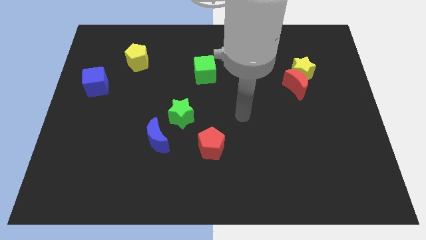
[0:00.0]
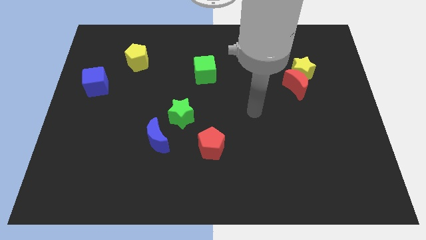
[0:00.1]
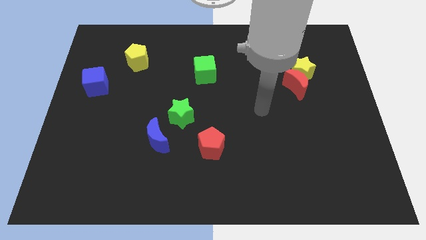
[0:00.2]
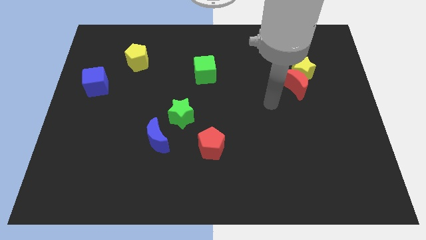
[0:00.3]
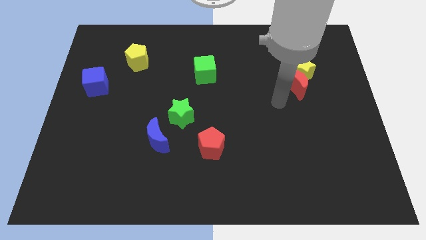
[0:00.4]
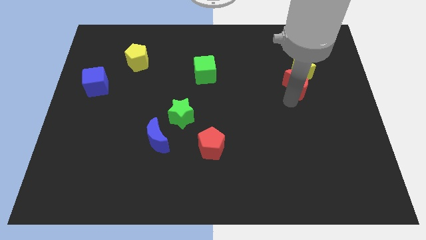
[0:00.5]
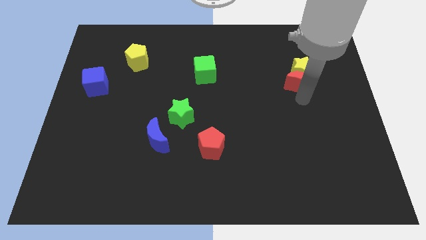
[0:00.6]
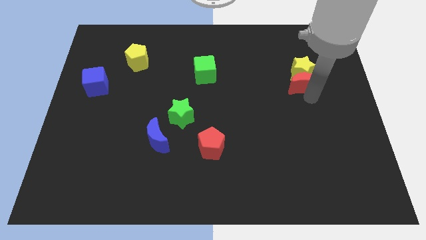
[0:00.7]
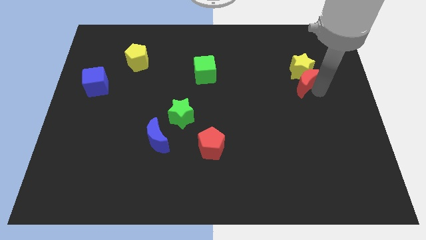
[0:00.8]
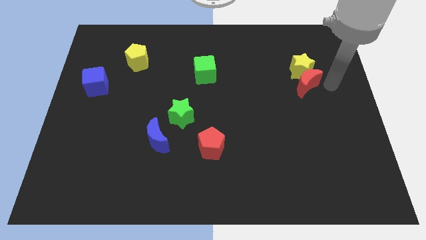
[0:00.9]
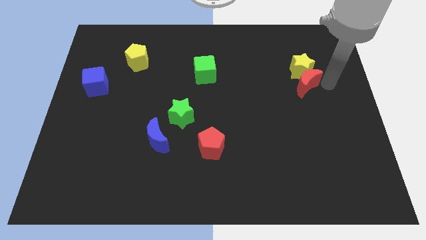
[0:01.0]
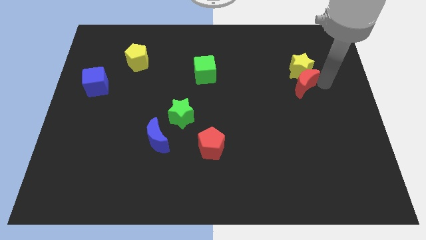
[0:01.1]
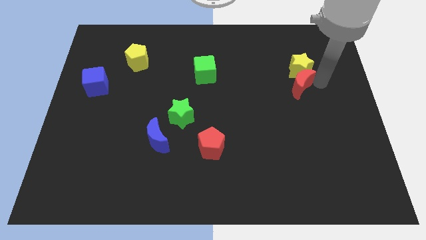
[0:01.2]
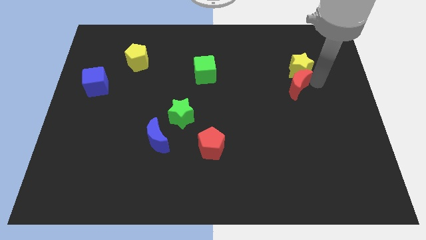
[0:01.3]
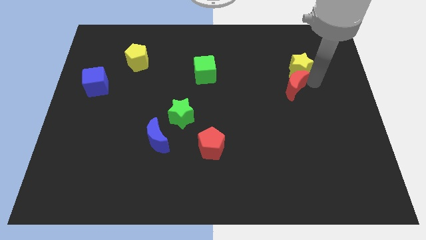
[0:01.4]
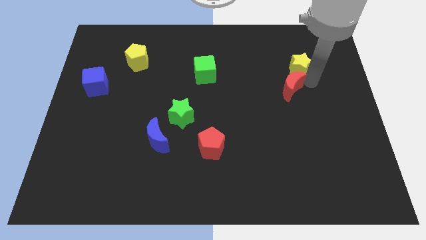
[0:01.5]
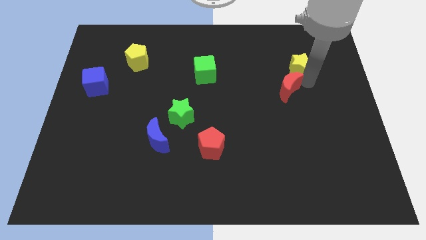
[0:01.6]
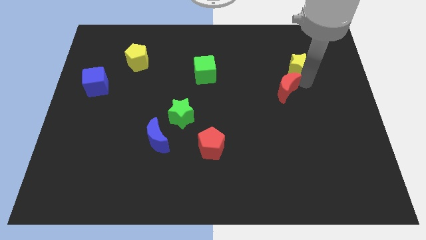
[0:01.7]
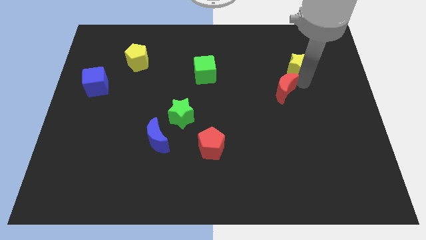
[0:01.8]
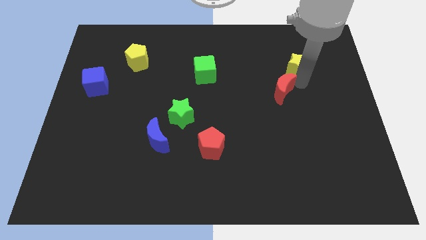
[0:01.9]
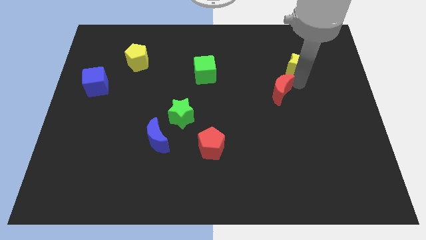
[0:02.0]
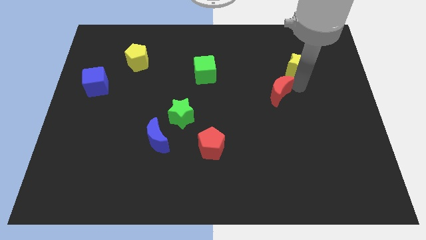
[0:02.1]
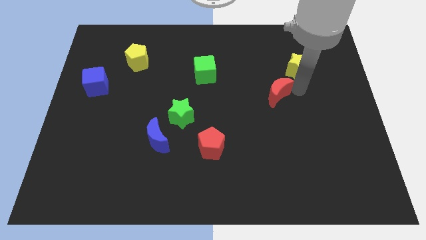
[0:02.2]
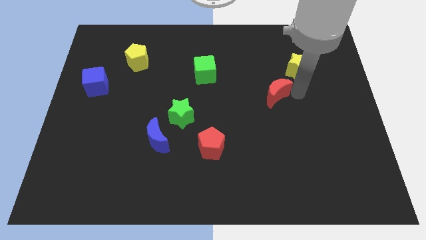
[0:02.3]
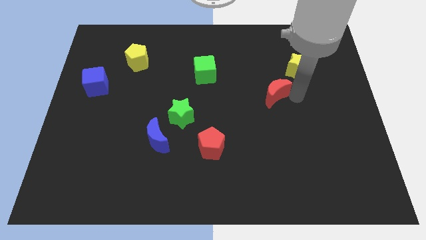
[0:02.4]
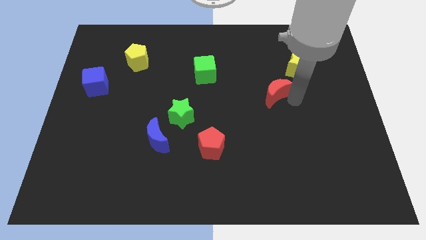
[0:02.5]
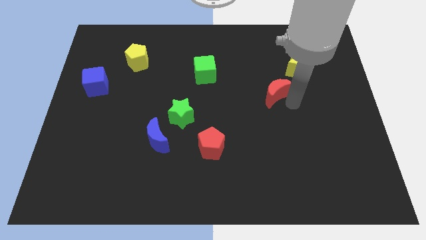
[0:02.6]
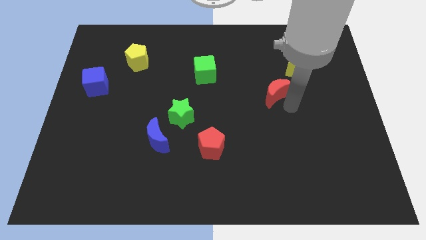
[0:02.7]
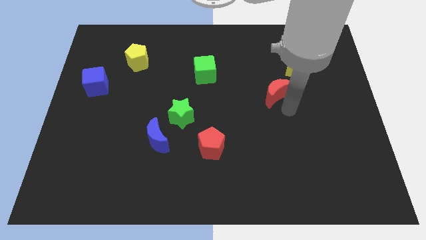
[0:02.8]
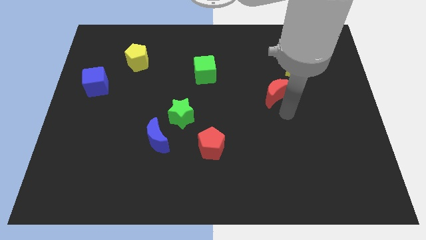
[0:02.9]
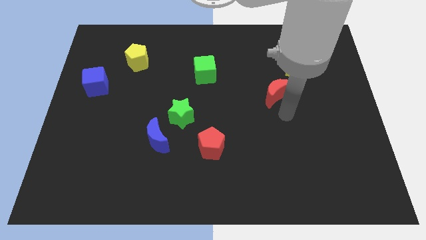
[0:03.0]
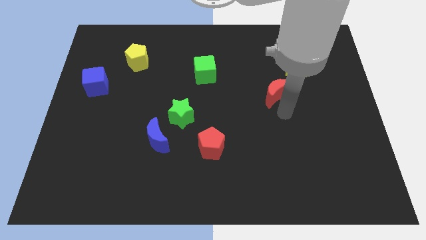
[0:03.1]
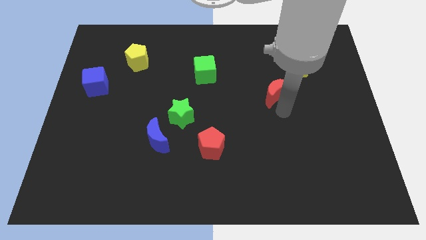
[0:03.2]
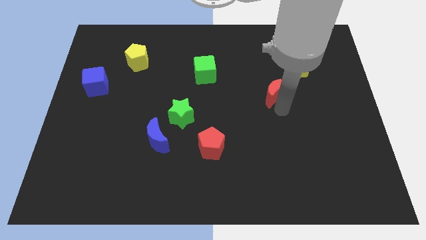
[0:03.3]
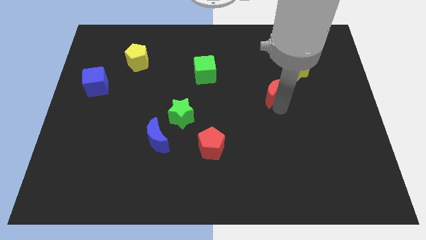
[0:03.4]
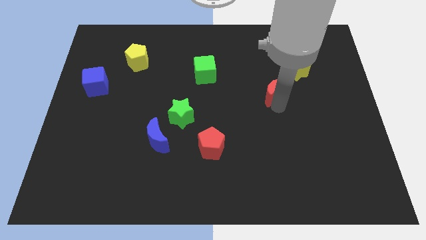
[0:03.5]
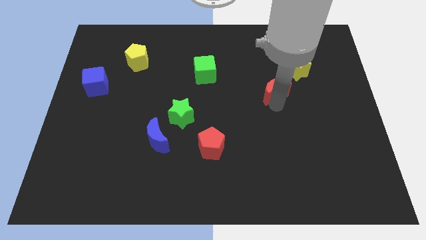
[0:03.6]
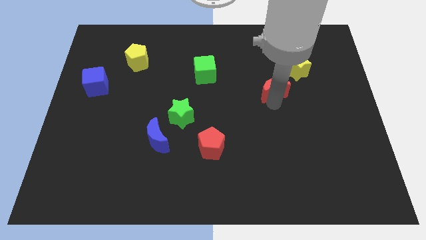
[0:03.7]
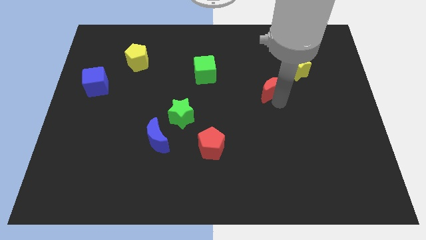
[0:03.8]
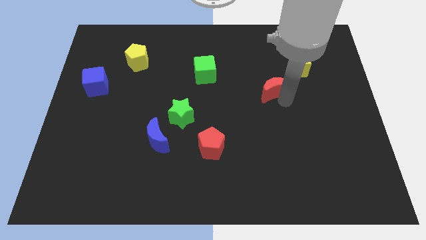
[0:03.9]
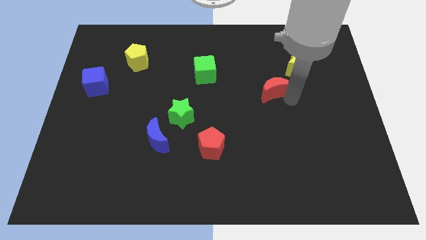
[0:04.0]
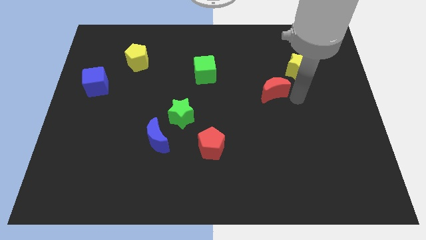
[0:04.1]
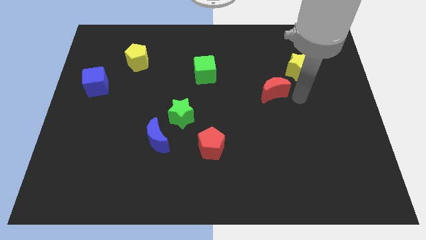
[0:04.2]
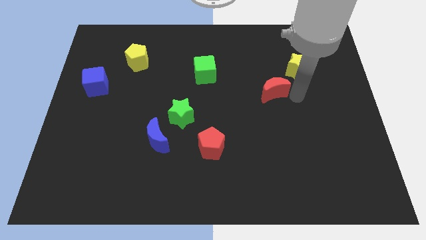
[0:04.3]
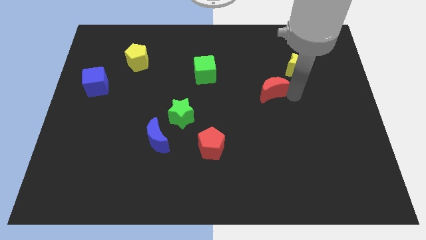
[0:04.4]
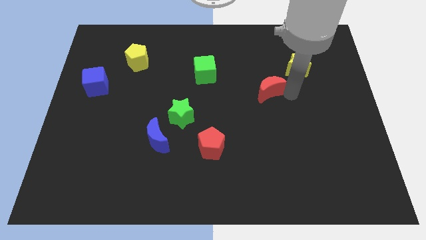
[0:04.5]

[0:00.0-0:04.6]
slightly move the red moon left

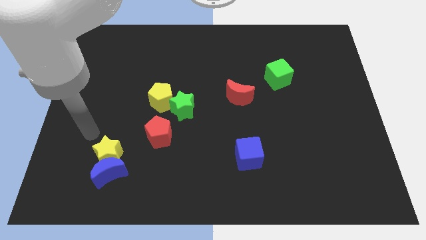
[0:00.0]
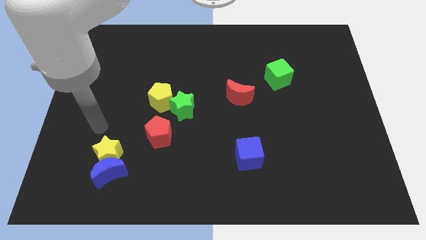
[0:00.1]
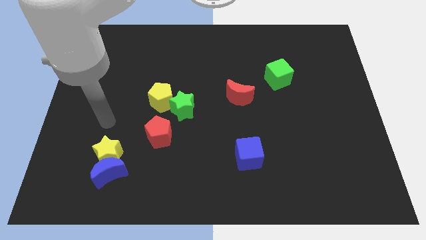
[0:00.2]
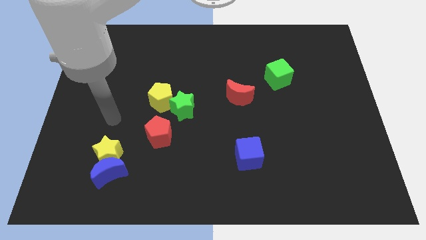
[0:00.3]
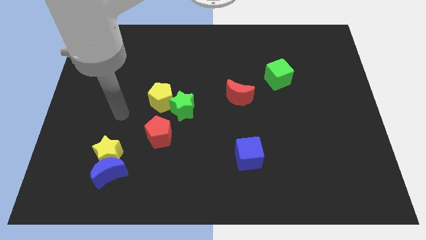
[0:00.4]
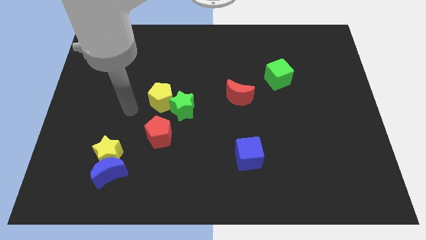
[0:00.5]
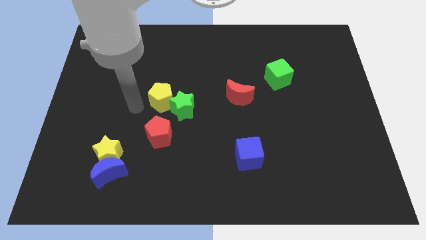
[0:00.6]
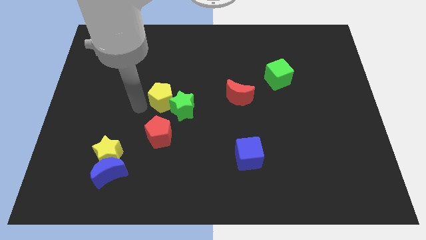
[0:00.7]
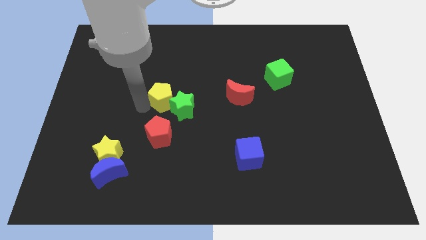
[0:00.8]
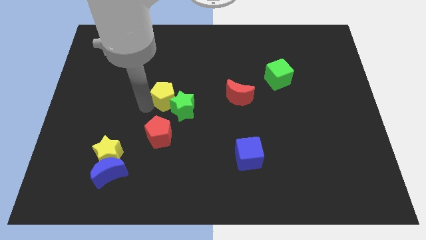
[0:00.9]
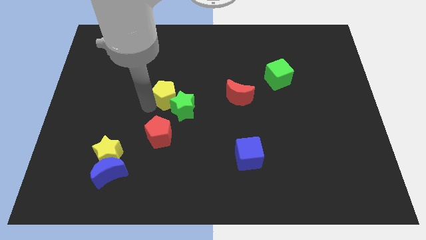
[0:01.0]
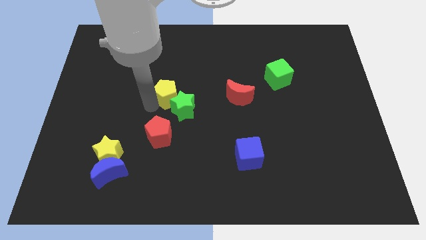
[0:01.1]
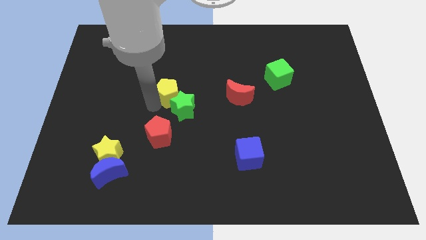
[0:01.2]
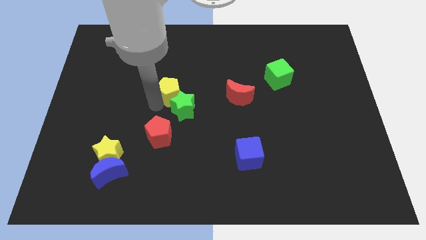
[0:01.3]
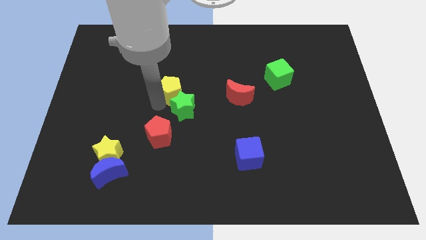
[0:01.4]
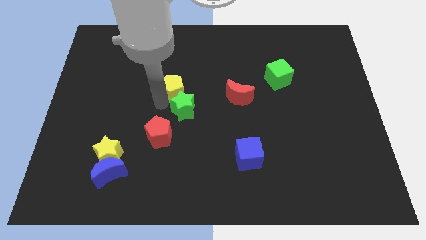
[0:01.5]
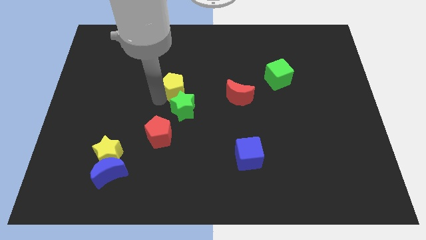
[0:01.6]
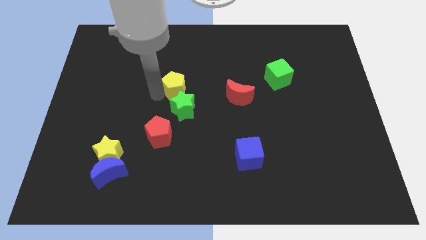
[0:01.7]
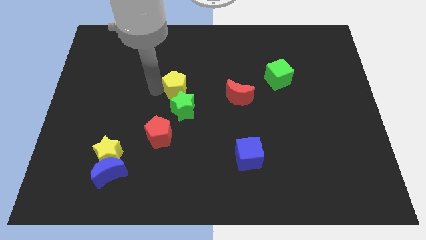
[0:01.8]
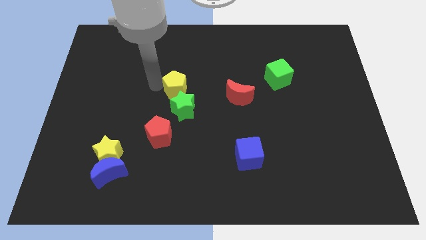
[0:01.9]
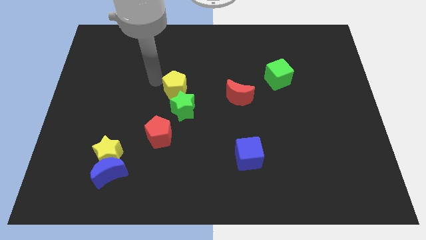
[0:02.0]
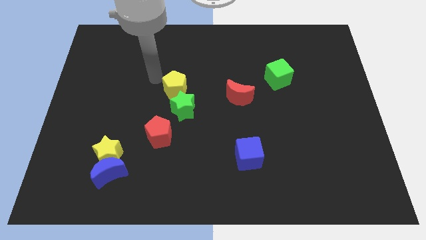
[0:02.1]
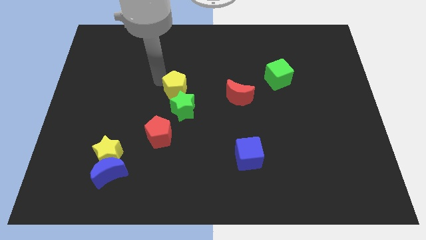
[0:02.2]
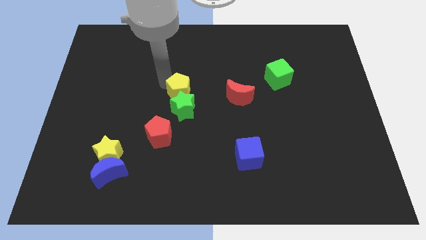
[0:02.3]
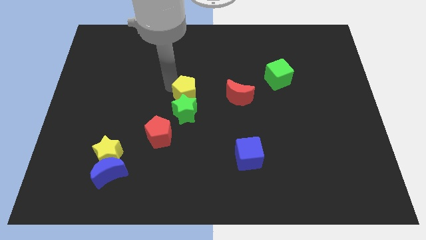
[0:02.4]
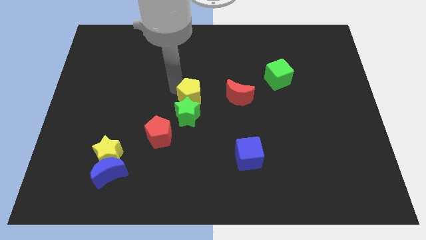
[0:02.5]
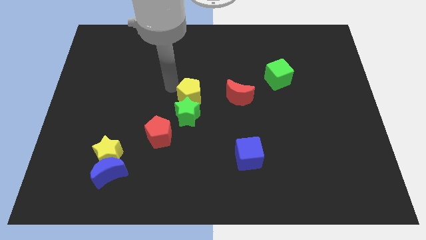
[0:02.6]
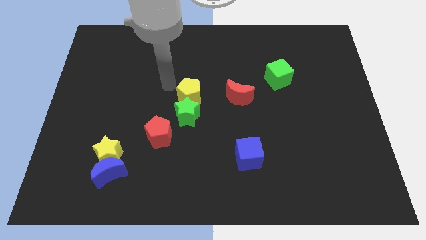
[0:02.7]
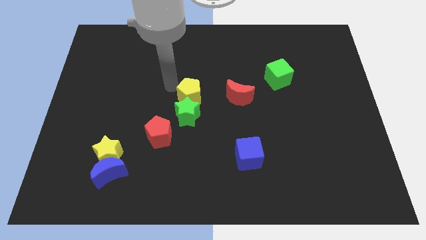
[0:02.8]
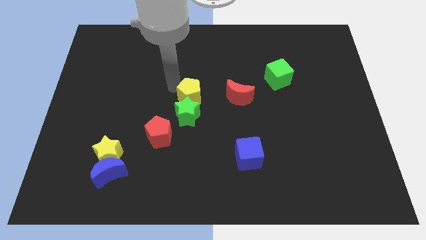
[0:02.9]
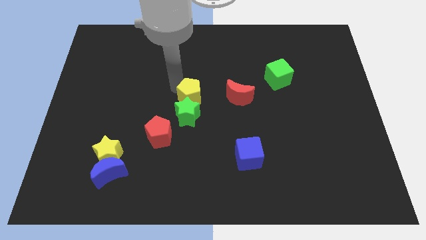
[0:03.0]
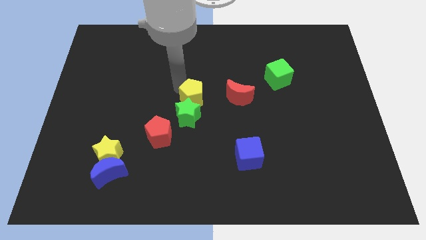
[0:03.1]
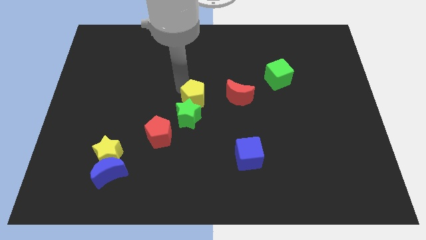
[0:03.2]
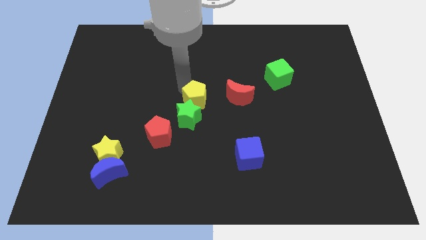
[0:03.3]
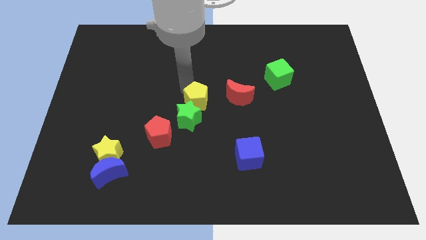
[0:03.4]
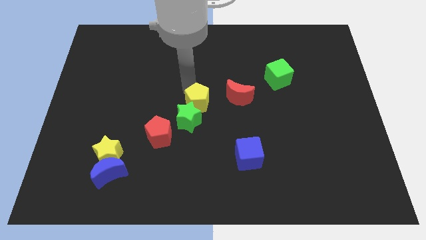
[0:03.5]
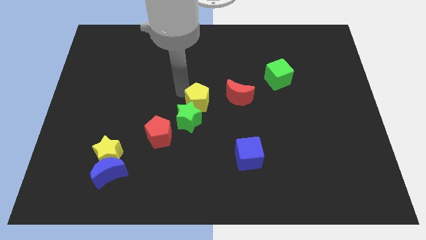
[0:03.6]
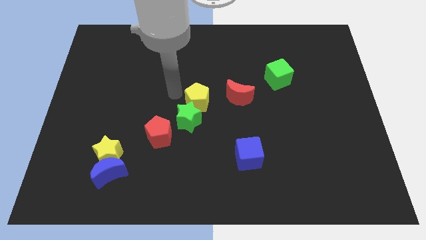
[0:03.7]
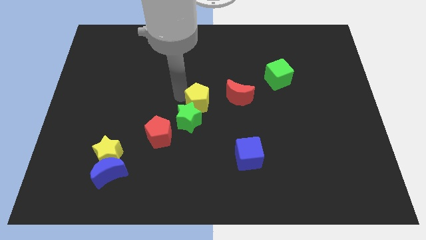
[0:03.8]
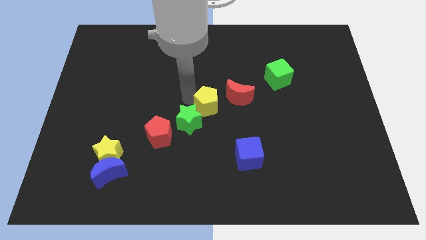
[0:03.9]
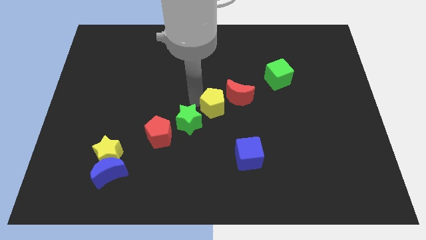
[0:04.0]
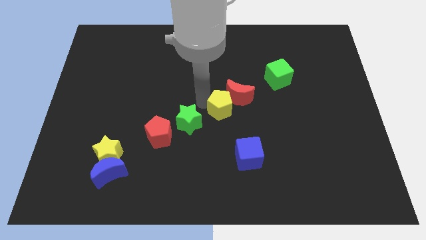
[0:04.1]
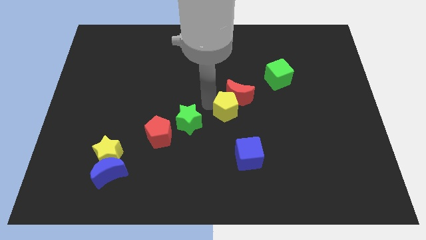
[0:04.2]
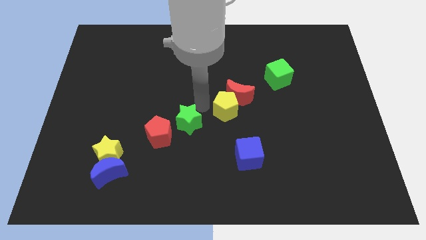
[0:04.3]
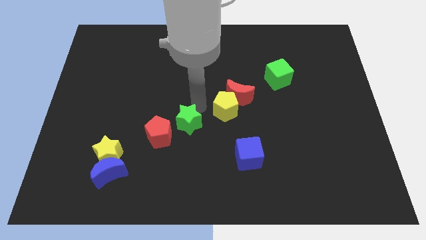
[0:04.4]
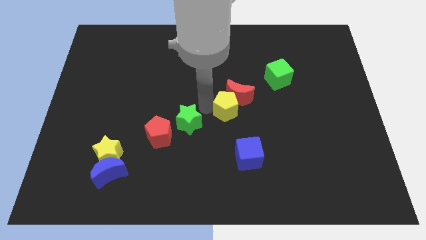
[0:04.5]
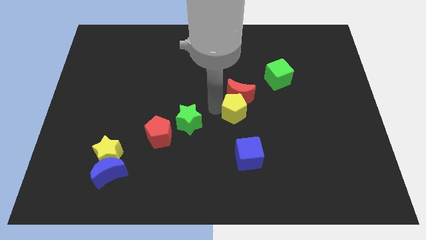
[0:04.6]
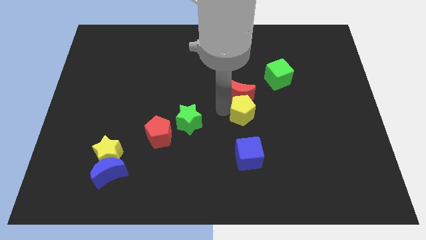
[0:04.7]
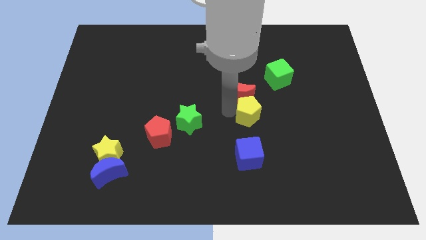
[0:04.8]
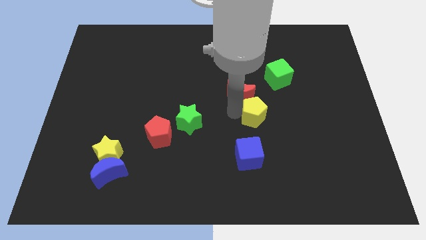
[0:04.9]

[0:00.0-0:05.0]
move the yellow pentagon to the right
